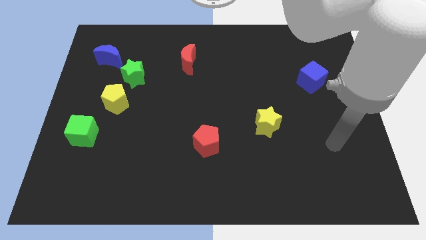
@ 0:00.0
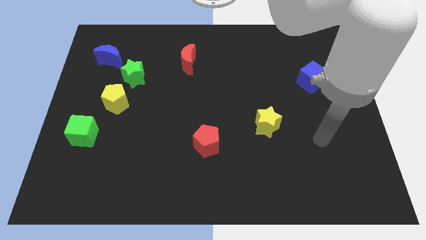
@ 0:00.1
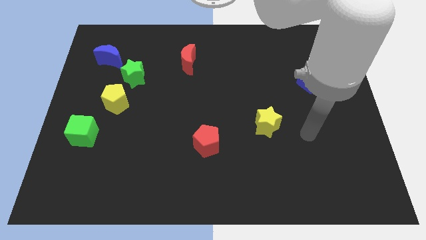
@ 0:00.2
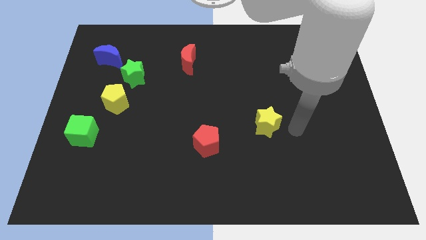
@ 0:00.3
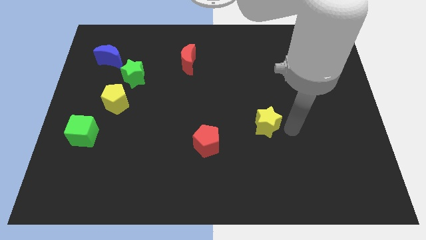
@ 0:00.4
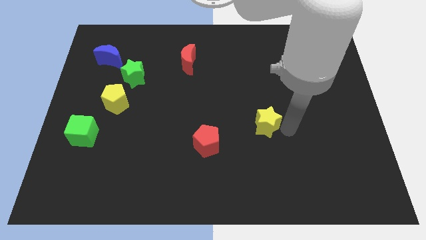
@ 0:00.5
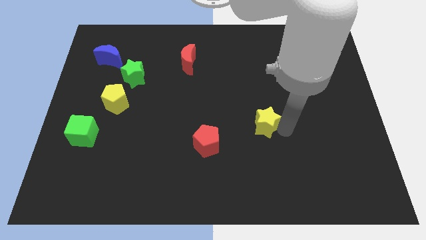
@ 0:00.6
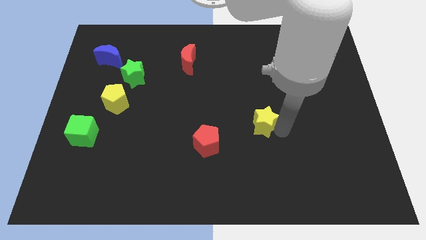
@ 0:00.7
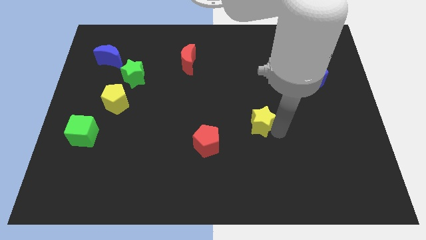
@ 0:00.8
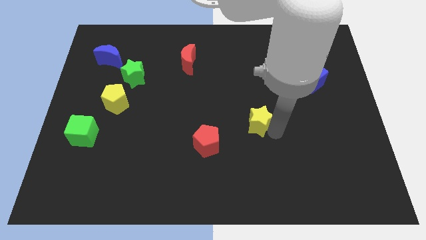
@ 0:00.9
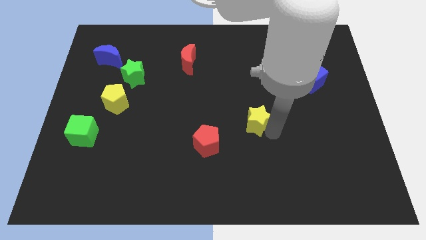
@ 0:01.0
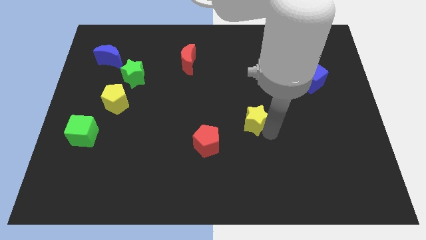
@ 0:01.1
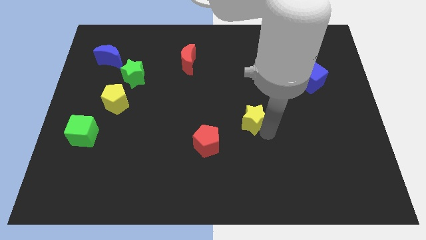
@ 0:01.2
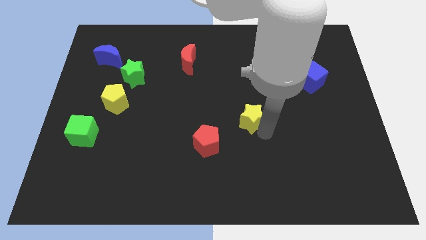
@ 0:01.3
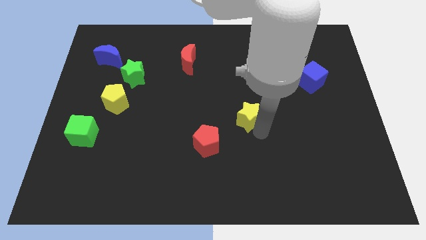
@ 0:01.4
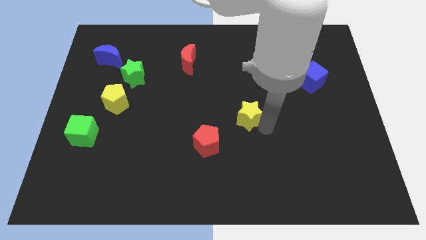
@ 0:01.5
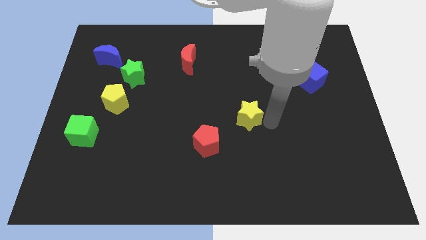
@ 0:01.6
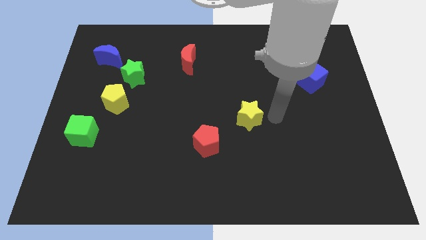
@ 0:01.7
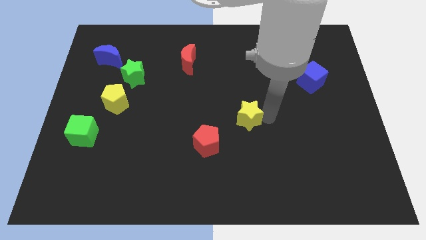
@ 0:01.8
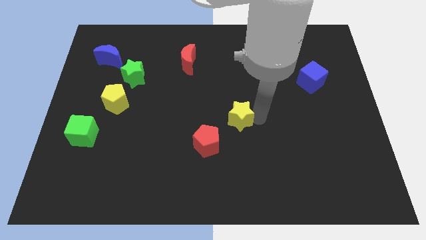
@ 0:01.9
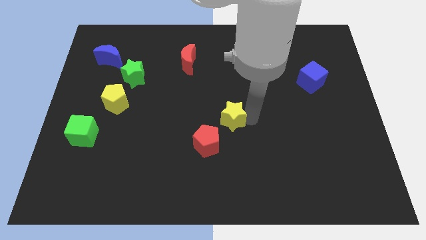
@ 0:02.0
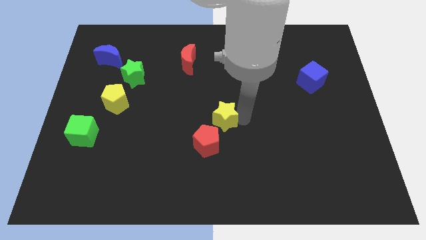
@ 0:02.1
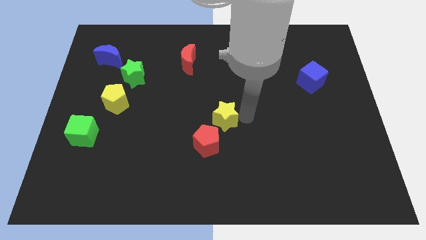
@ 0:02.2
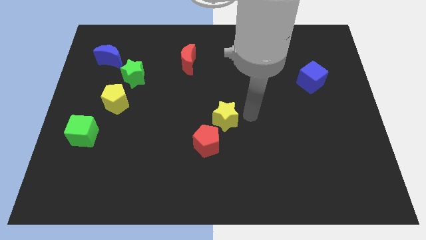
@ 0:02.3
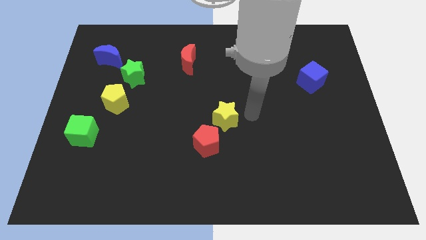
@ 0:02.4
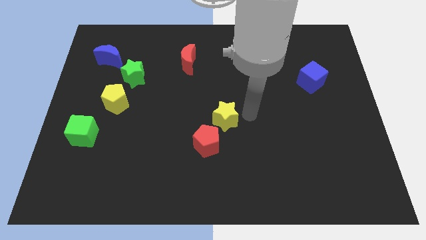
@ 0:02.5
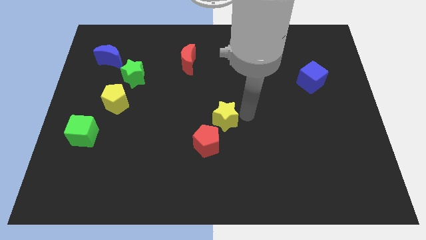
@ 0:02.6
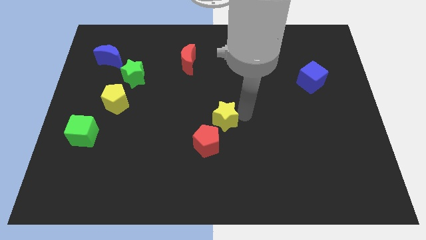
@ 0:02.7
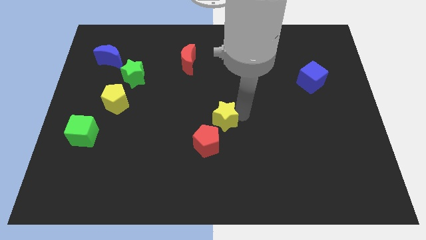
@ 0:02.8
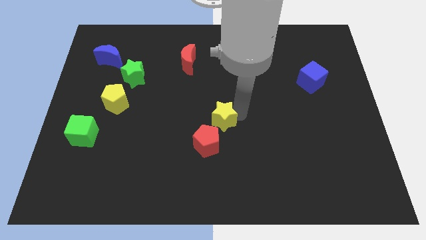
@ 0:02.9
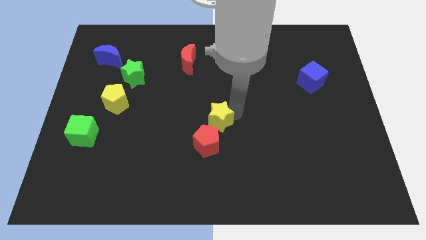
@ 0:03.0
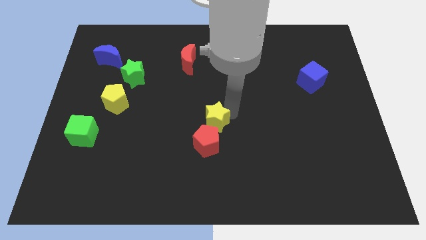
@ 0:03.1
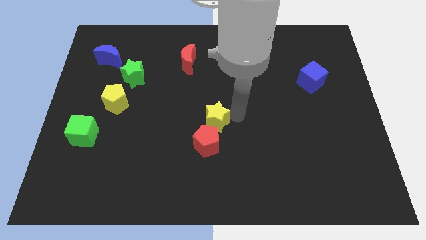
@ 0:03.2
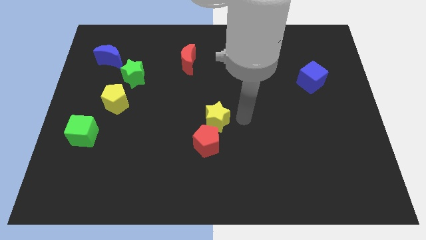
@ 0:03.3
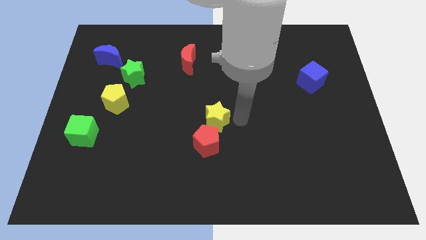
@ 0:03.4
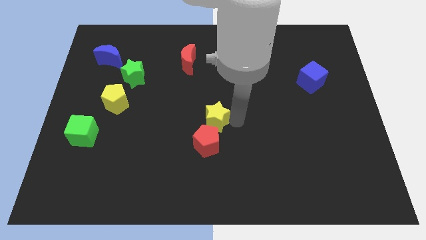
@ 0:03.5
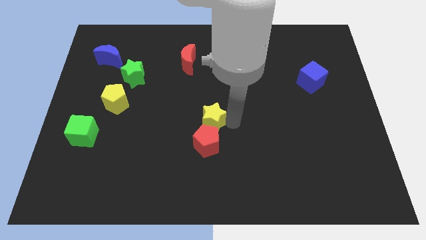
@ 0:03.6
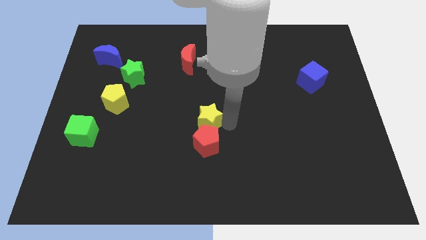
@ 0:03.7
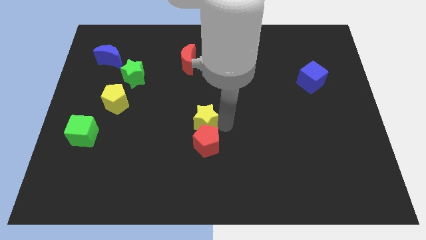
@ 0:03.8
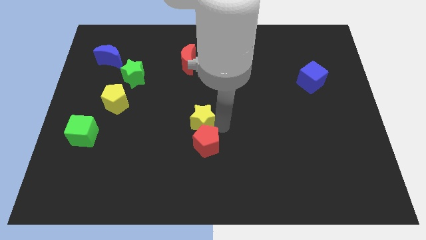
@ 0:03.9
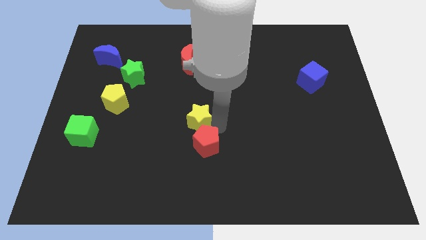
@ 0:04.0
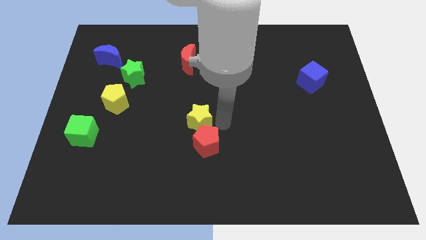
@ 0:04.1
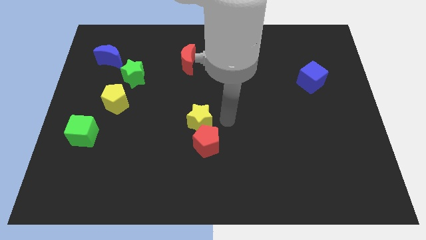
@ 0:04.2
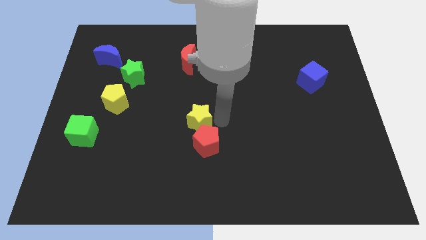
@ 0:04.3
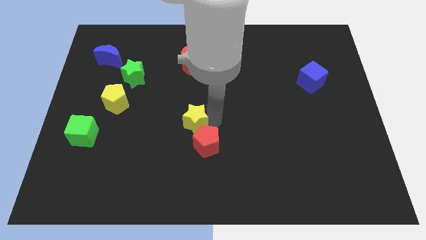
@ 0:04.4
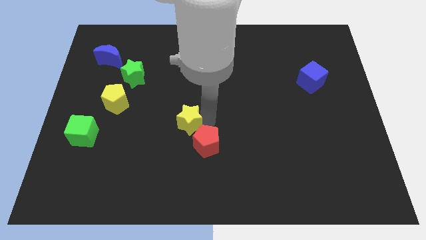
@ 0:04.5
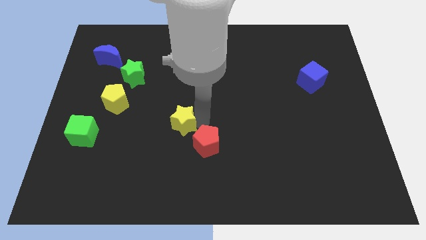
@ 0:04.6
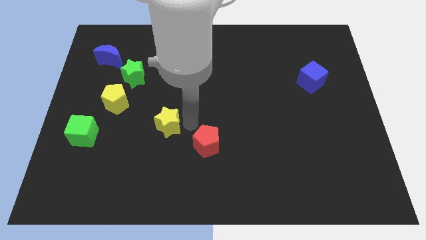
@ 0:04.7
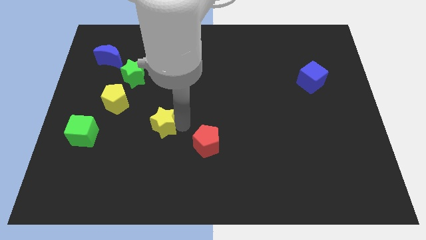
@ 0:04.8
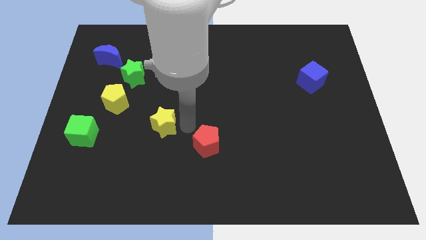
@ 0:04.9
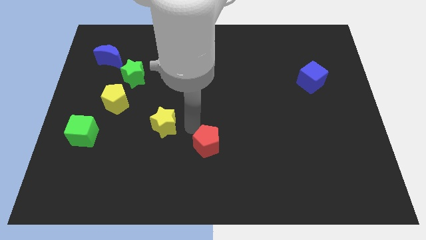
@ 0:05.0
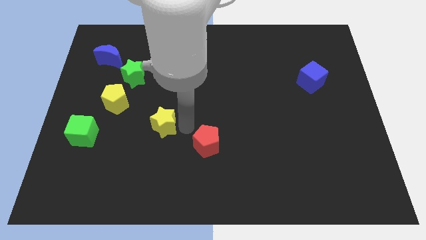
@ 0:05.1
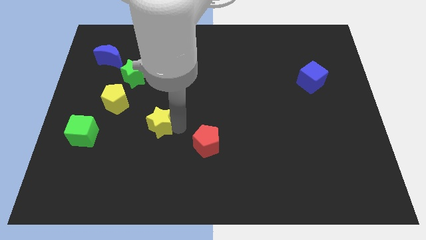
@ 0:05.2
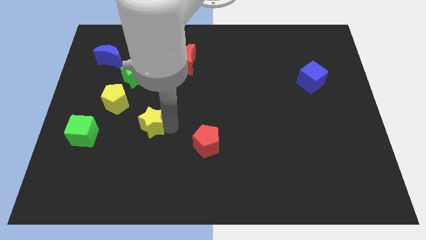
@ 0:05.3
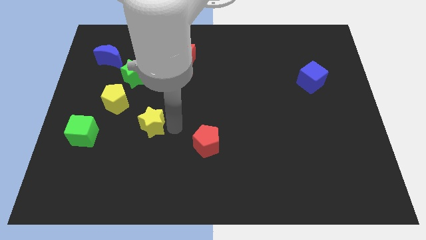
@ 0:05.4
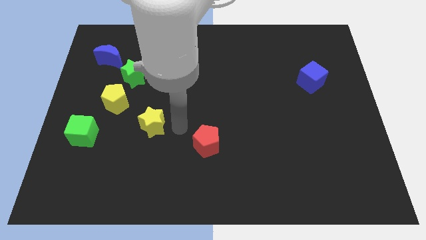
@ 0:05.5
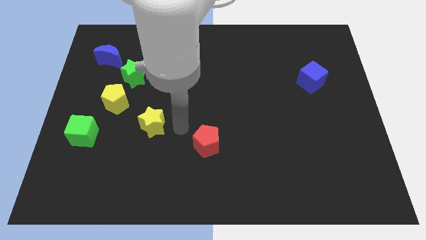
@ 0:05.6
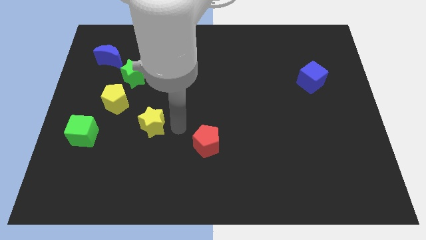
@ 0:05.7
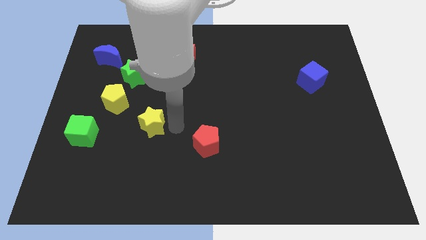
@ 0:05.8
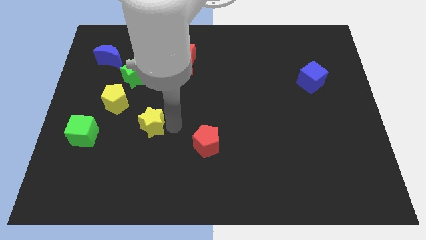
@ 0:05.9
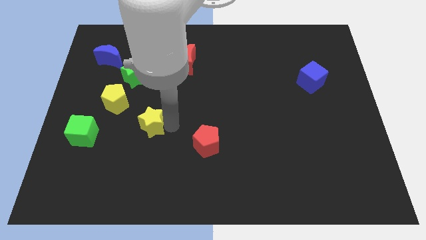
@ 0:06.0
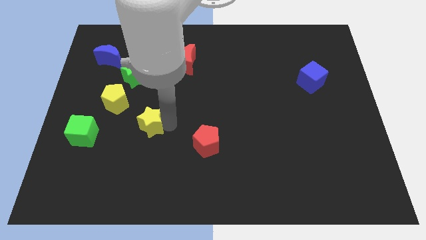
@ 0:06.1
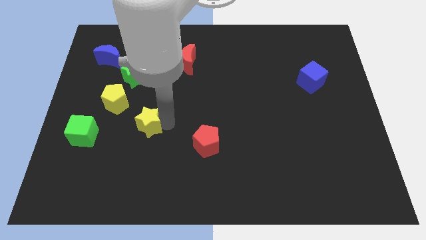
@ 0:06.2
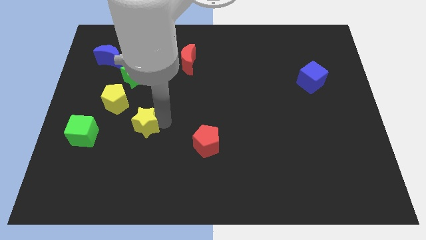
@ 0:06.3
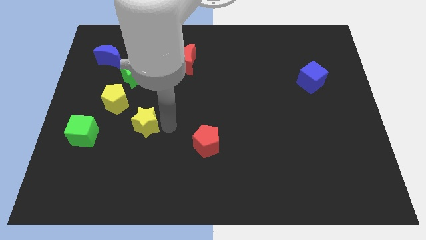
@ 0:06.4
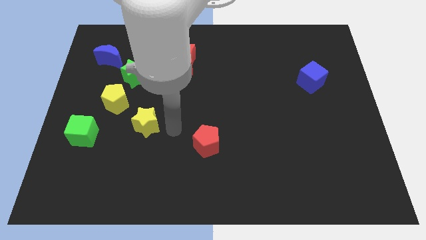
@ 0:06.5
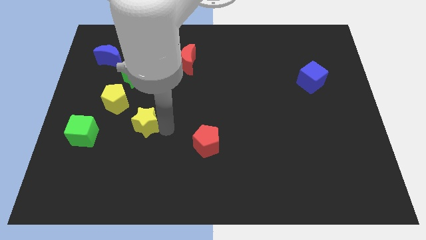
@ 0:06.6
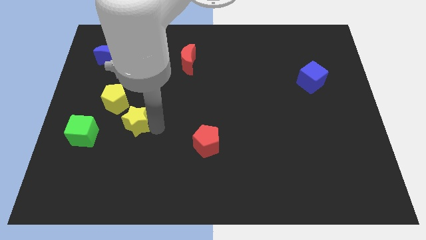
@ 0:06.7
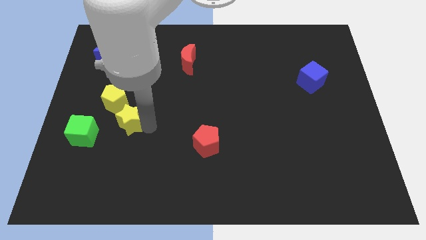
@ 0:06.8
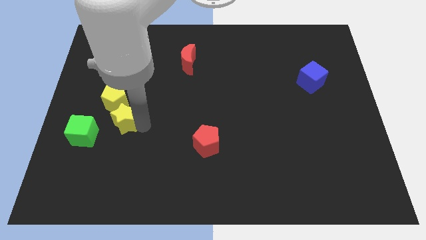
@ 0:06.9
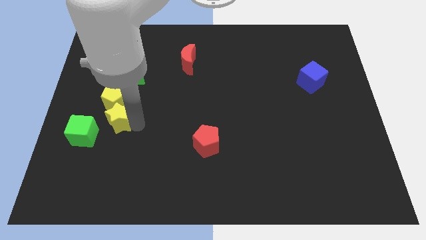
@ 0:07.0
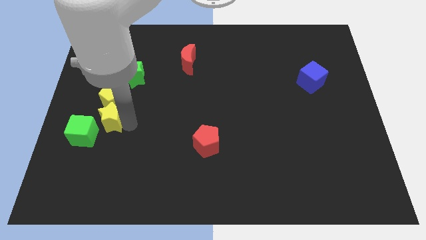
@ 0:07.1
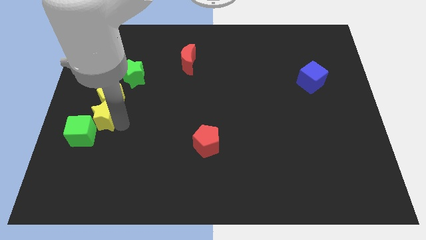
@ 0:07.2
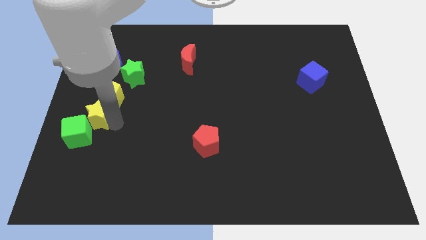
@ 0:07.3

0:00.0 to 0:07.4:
slide the yellow star to the left side of the board
